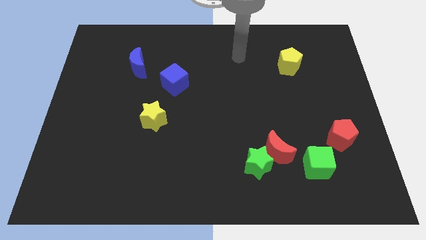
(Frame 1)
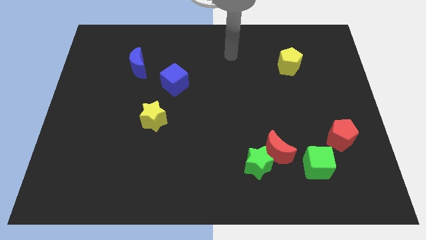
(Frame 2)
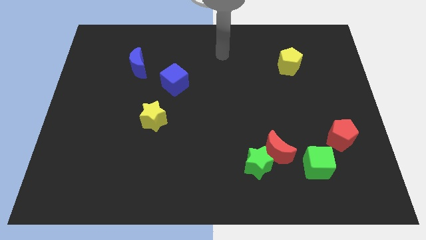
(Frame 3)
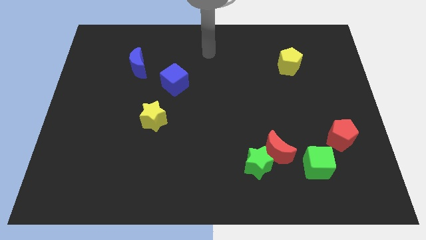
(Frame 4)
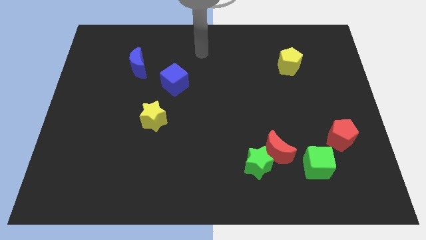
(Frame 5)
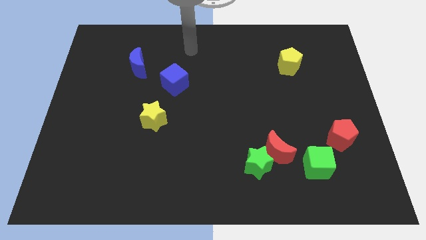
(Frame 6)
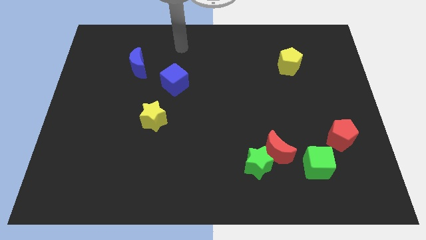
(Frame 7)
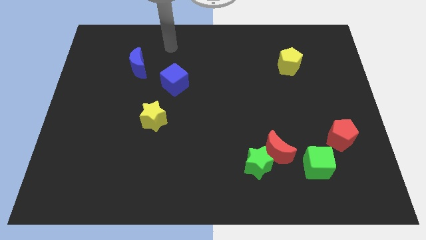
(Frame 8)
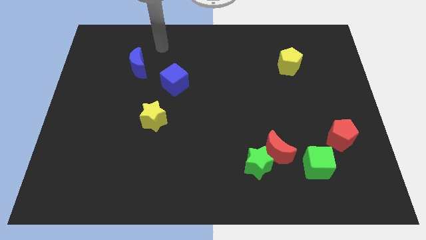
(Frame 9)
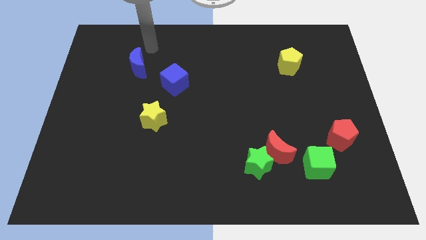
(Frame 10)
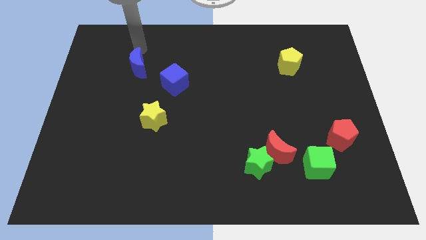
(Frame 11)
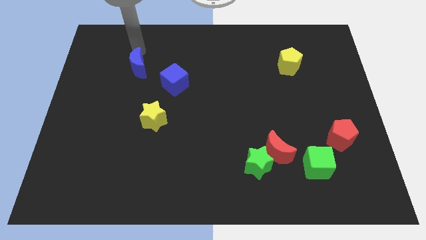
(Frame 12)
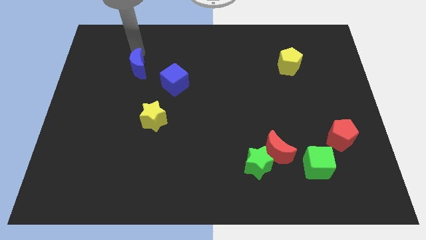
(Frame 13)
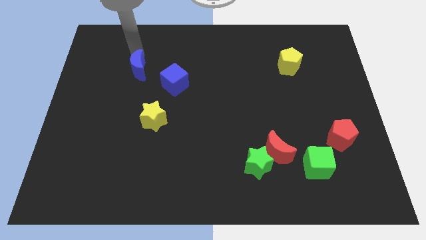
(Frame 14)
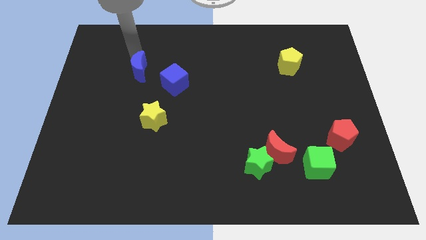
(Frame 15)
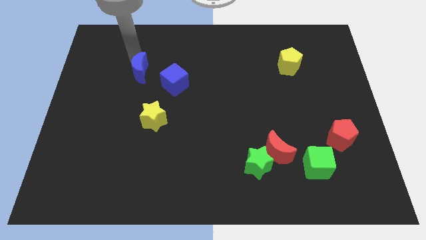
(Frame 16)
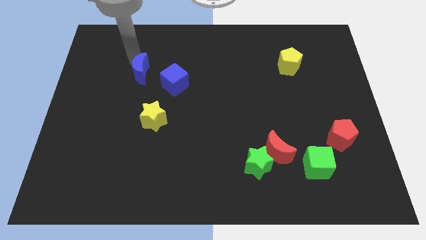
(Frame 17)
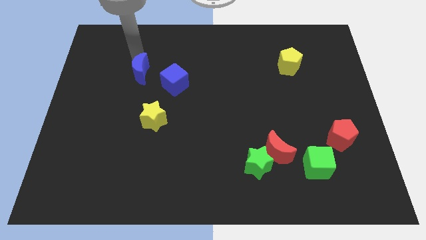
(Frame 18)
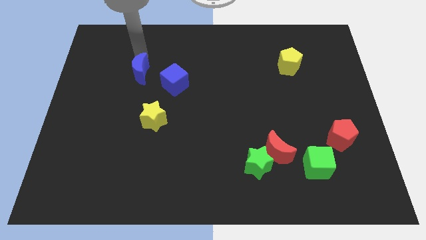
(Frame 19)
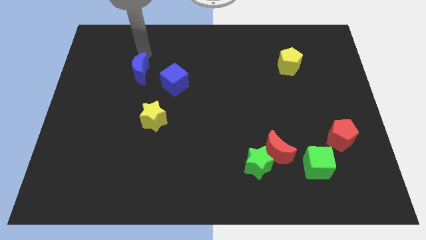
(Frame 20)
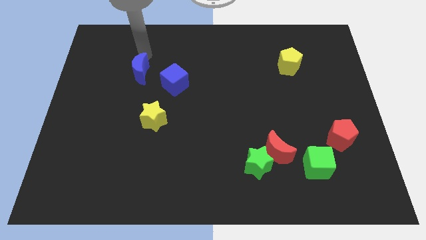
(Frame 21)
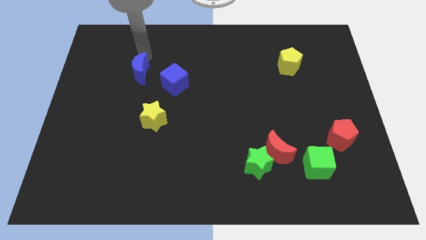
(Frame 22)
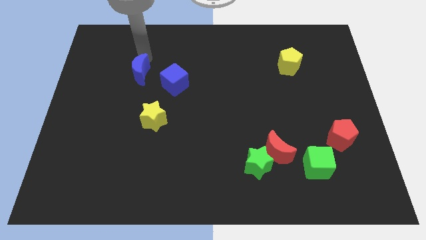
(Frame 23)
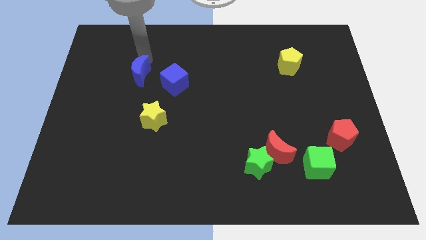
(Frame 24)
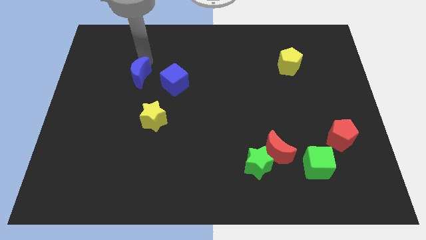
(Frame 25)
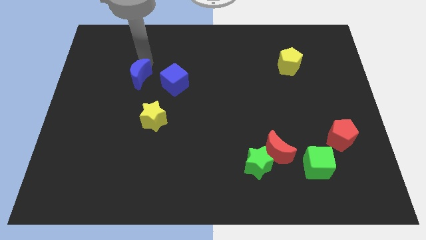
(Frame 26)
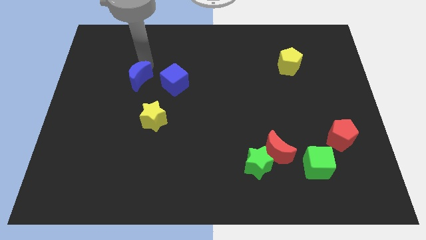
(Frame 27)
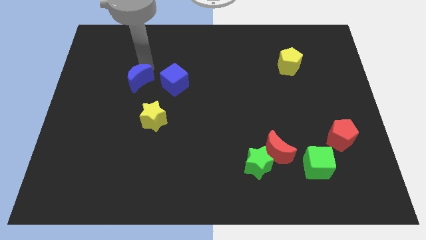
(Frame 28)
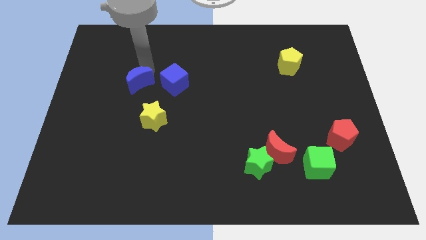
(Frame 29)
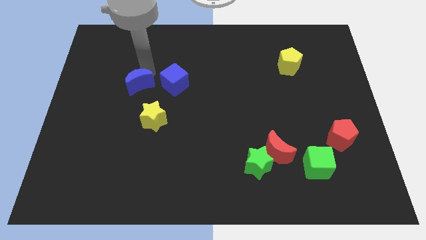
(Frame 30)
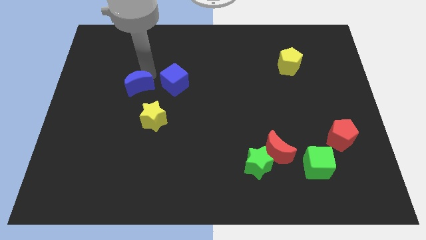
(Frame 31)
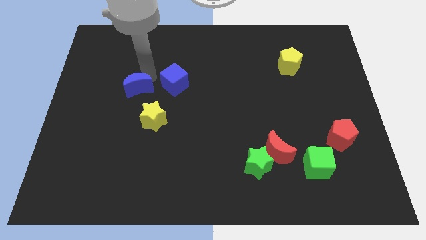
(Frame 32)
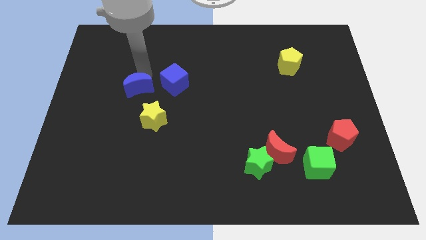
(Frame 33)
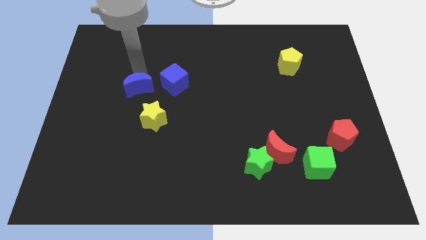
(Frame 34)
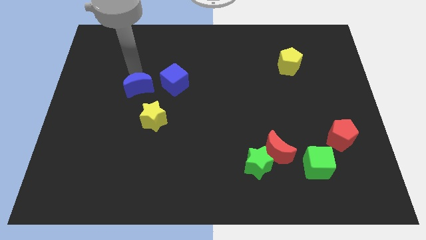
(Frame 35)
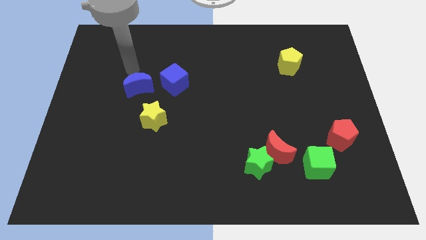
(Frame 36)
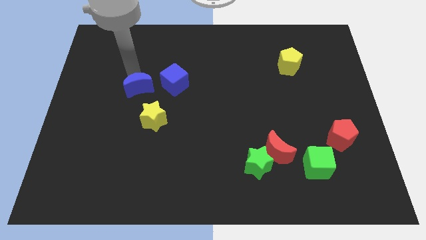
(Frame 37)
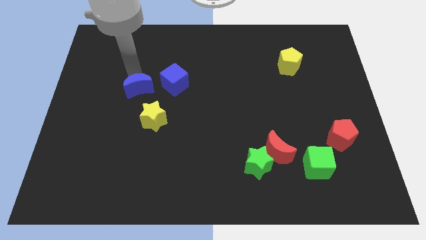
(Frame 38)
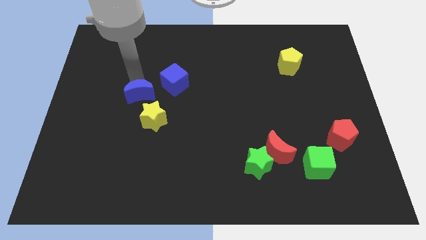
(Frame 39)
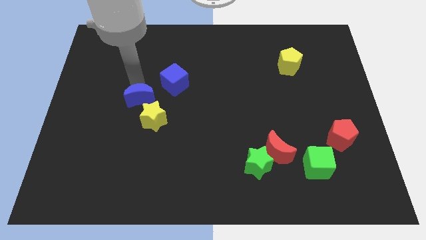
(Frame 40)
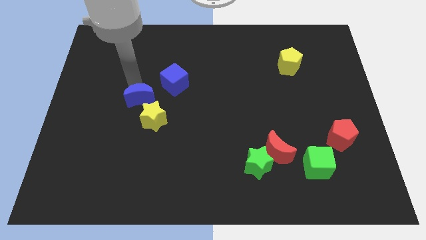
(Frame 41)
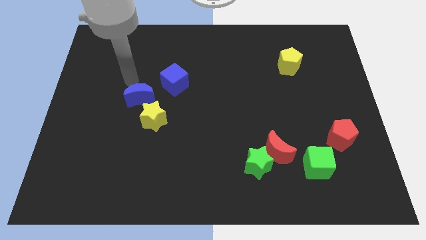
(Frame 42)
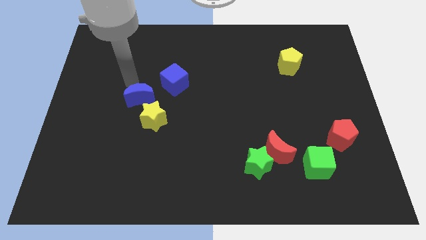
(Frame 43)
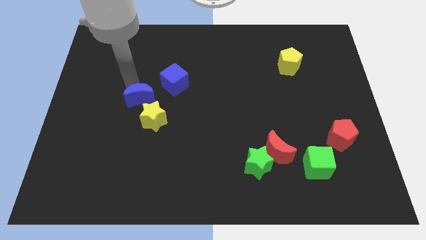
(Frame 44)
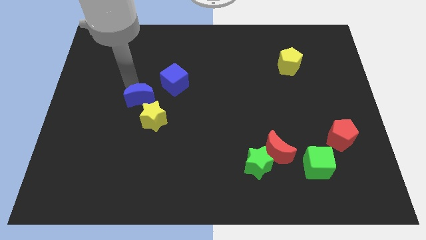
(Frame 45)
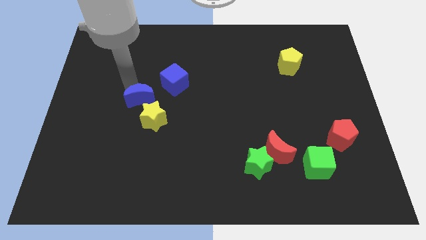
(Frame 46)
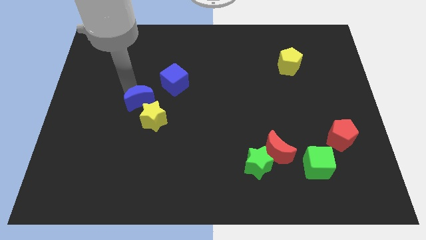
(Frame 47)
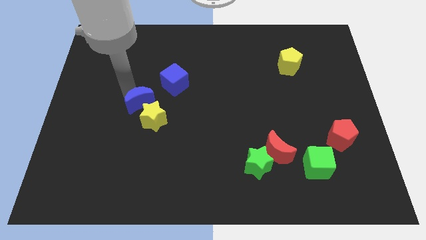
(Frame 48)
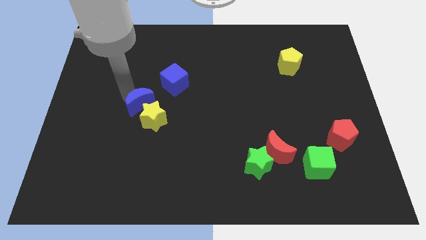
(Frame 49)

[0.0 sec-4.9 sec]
move the blue moon close to the yellow star

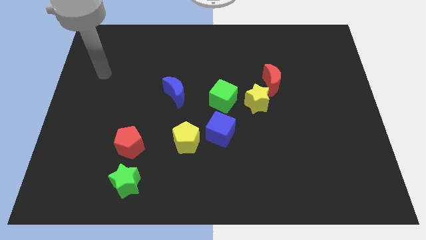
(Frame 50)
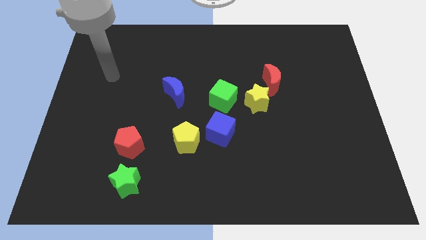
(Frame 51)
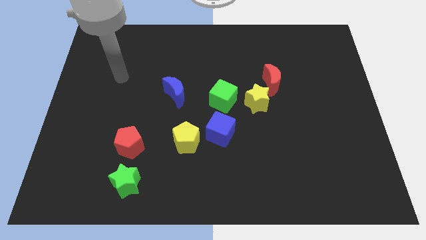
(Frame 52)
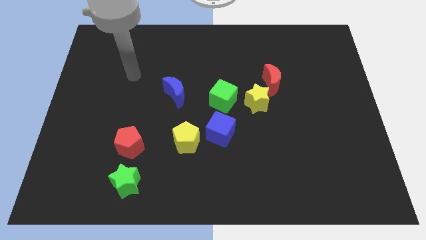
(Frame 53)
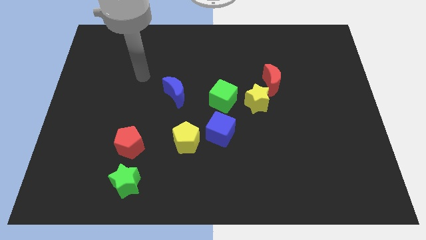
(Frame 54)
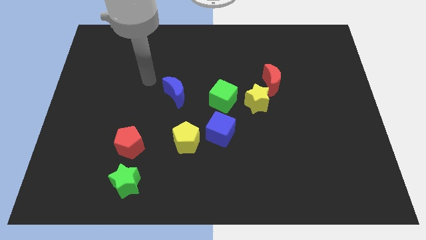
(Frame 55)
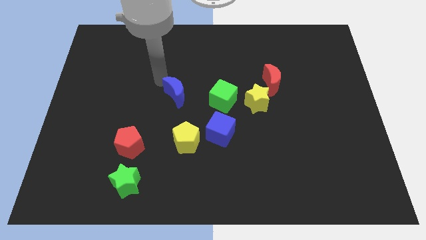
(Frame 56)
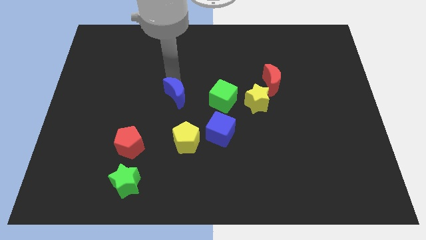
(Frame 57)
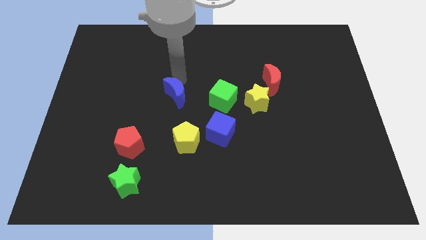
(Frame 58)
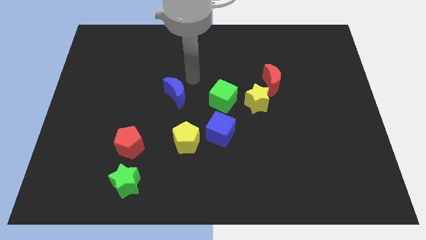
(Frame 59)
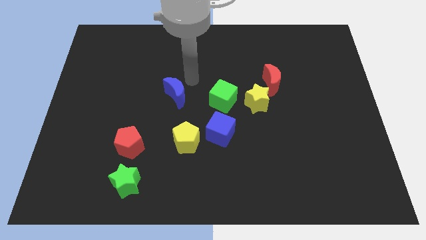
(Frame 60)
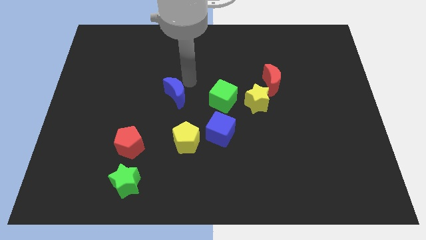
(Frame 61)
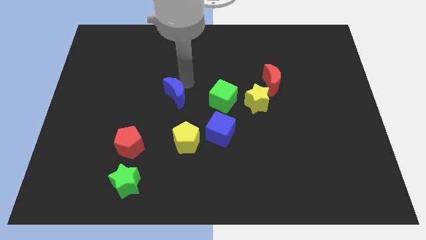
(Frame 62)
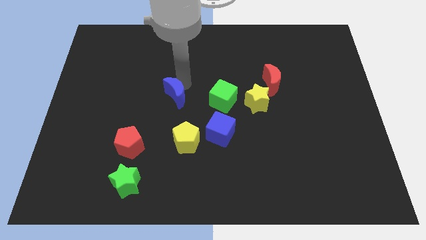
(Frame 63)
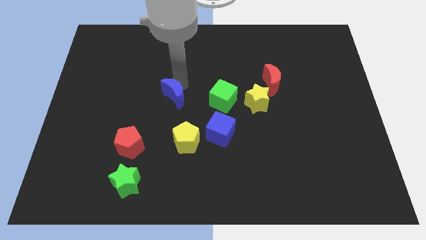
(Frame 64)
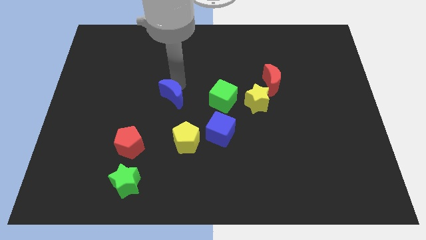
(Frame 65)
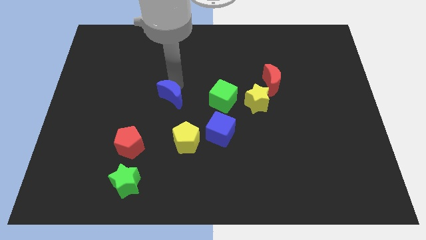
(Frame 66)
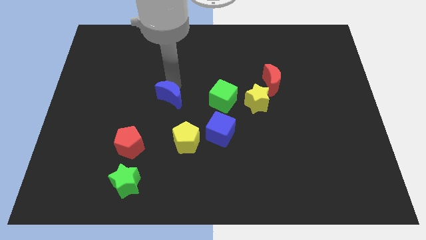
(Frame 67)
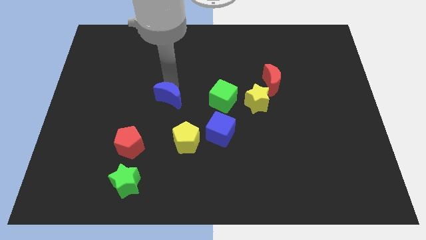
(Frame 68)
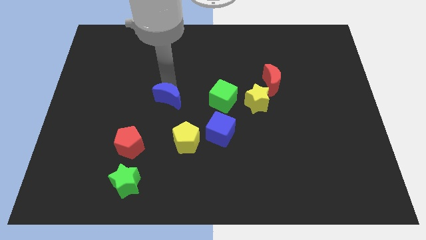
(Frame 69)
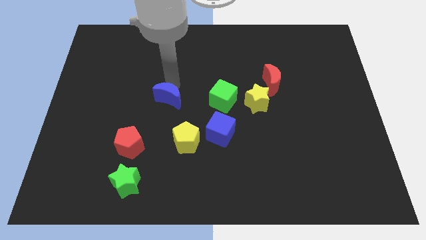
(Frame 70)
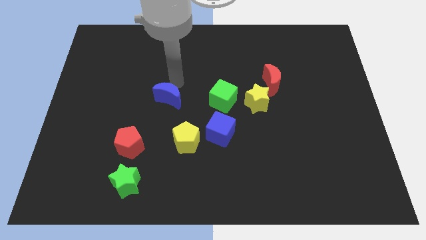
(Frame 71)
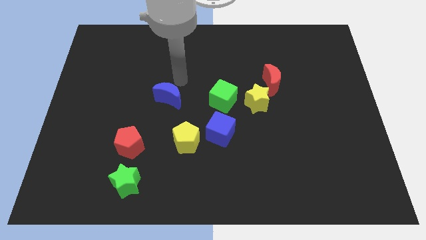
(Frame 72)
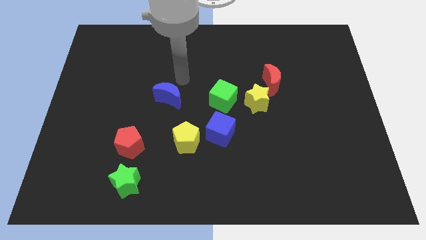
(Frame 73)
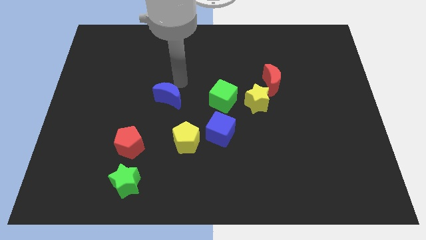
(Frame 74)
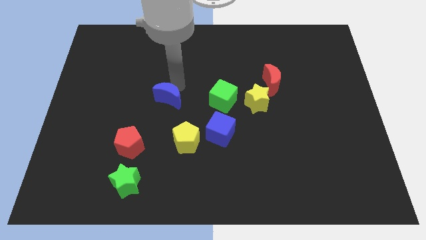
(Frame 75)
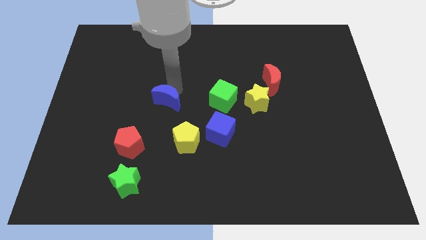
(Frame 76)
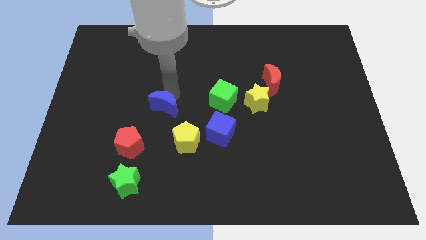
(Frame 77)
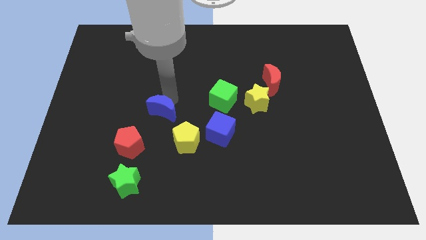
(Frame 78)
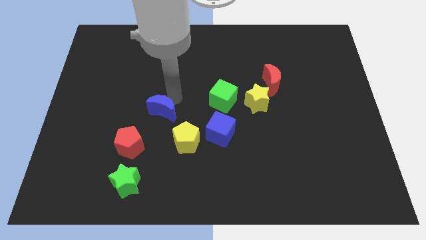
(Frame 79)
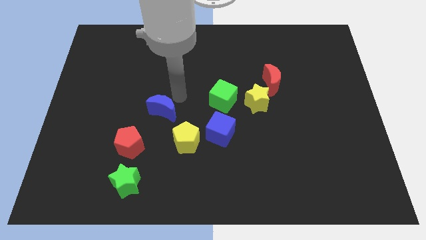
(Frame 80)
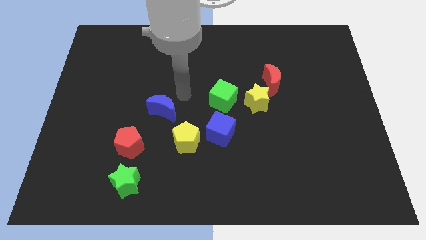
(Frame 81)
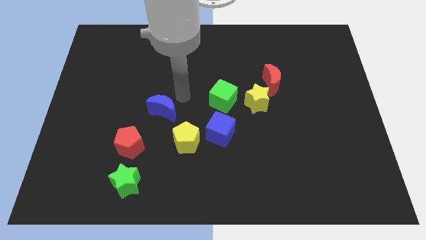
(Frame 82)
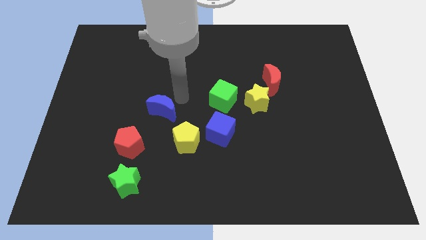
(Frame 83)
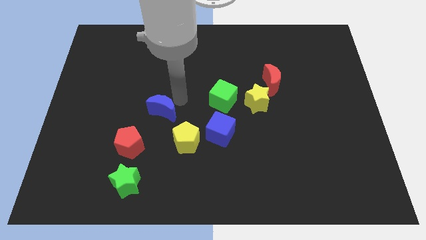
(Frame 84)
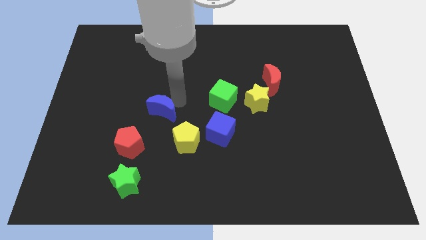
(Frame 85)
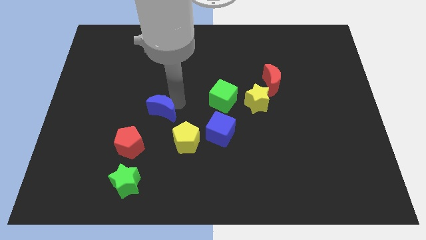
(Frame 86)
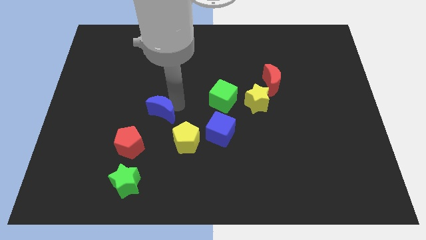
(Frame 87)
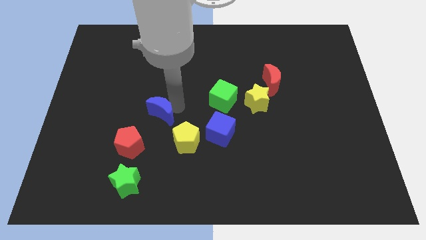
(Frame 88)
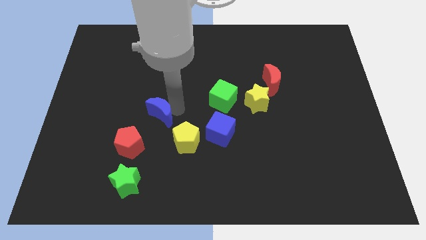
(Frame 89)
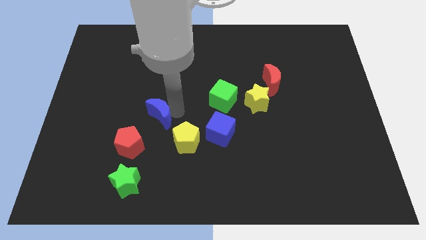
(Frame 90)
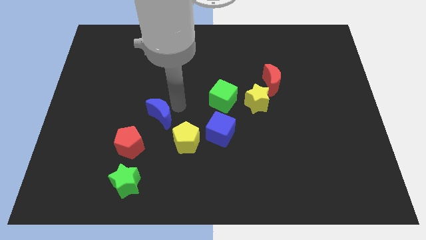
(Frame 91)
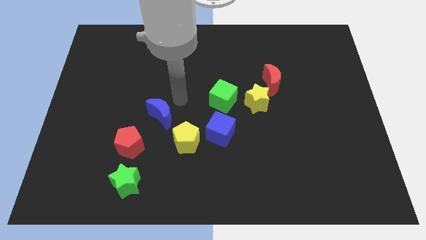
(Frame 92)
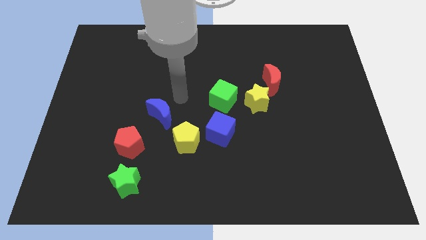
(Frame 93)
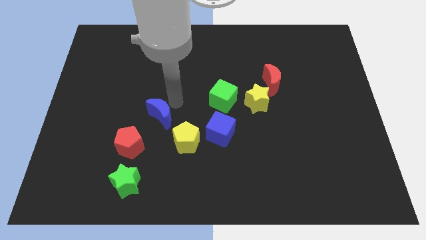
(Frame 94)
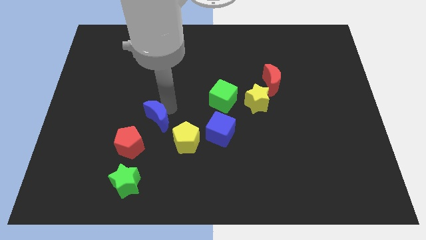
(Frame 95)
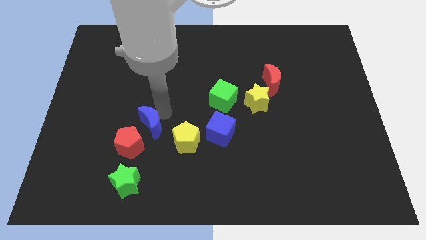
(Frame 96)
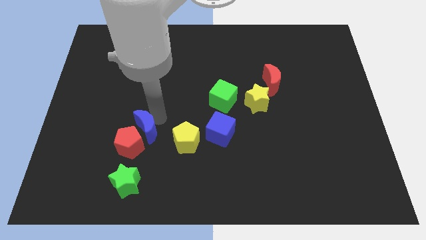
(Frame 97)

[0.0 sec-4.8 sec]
move the blue moon towards the red pentagon
